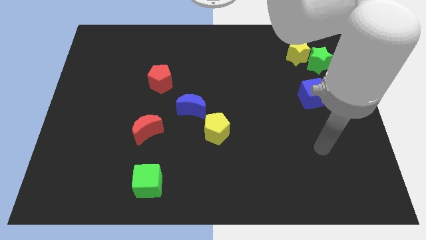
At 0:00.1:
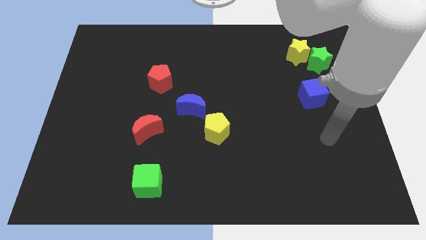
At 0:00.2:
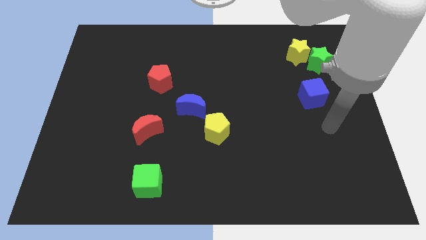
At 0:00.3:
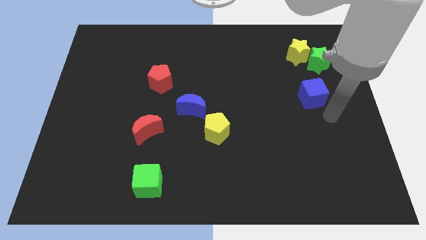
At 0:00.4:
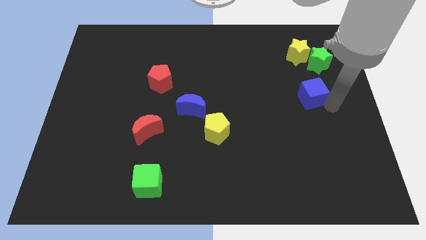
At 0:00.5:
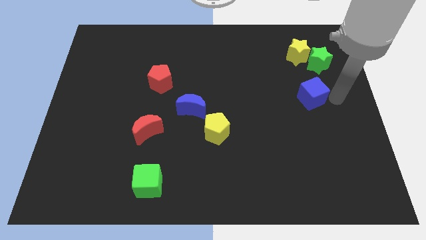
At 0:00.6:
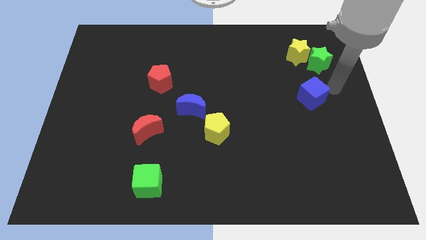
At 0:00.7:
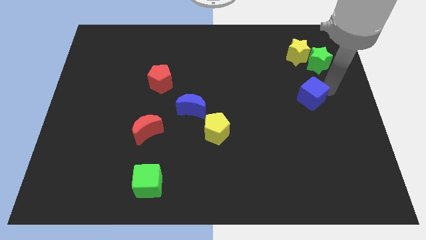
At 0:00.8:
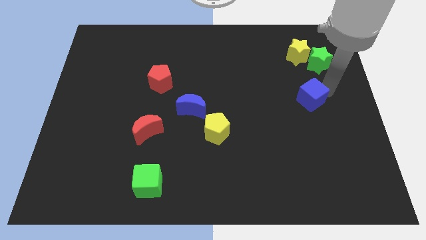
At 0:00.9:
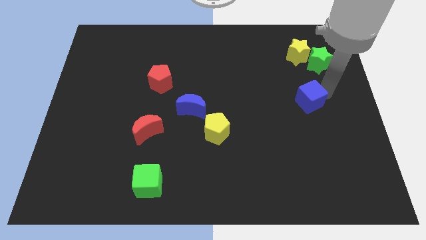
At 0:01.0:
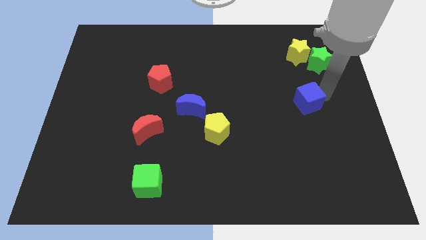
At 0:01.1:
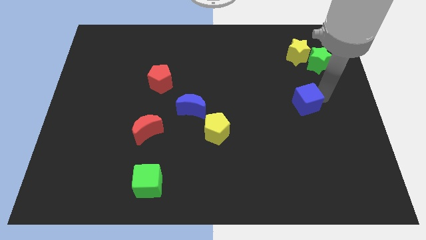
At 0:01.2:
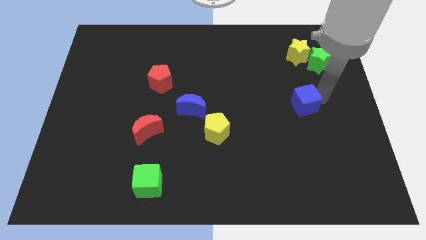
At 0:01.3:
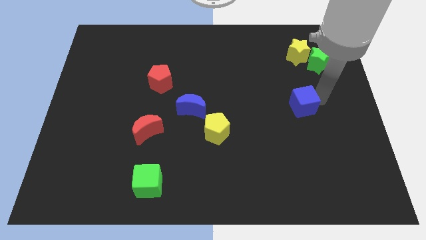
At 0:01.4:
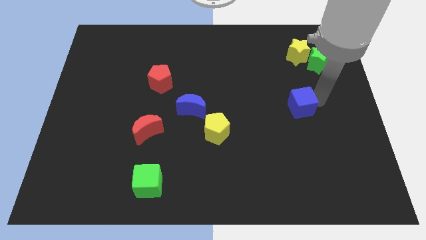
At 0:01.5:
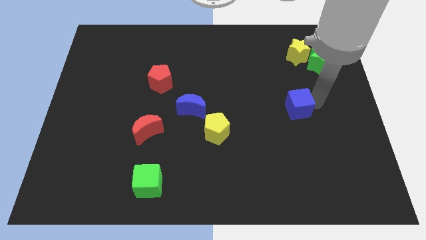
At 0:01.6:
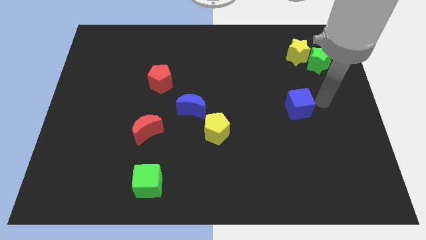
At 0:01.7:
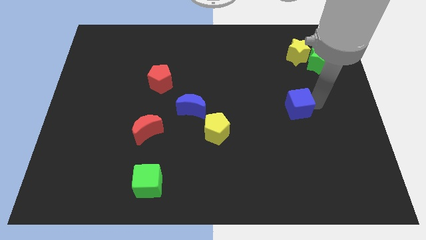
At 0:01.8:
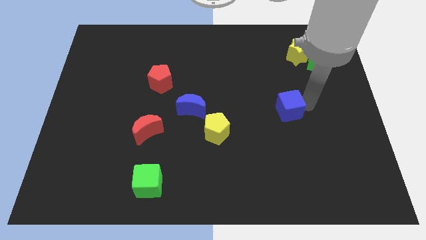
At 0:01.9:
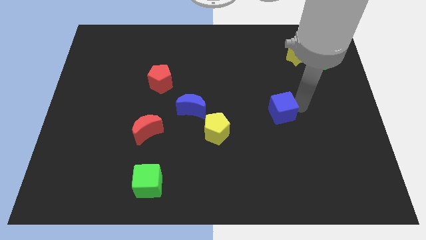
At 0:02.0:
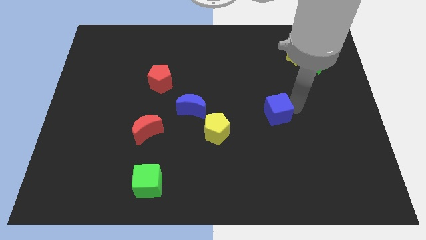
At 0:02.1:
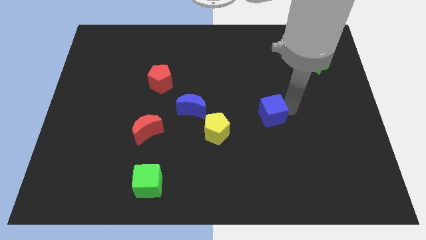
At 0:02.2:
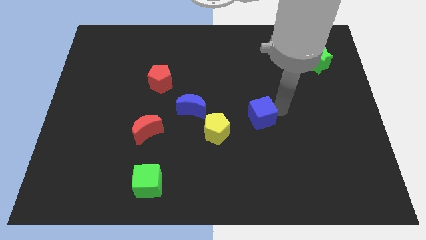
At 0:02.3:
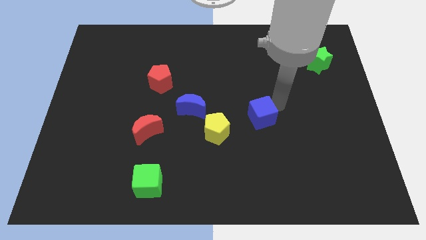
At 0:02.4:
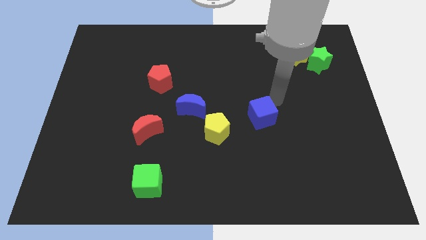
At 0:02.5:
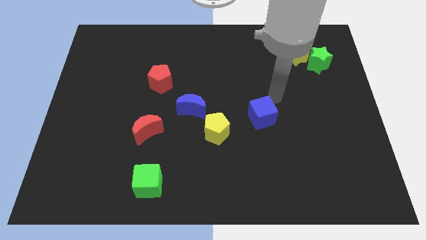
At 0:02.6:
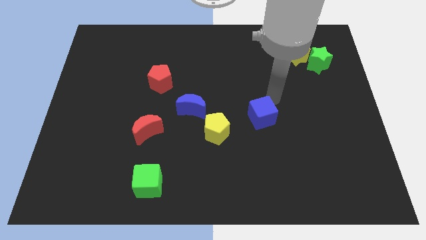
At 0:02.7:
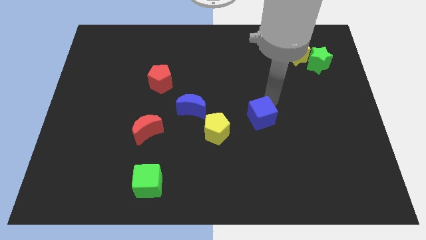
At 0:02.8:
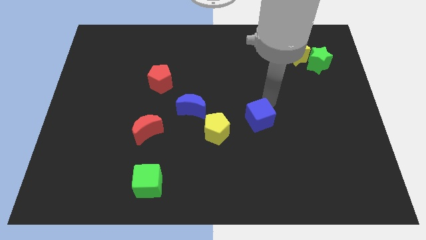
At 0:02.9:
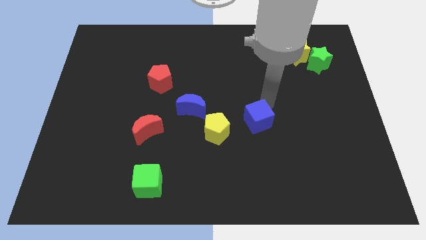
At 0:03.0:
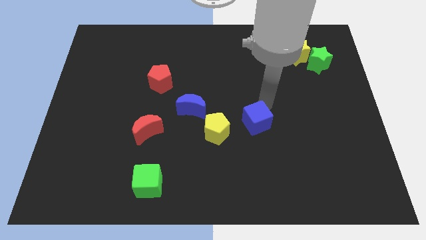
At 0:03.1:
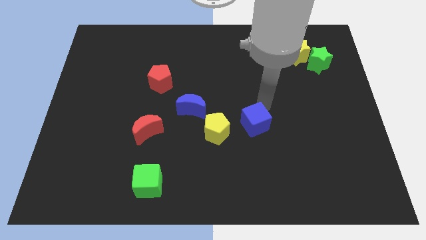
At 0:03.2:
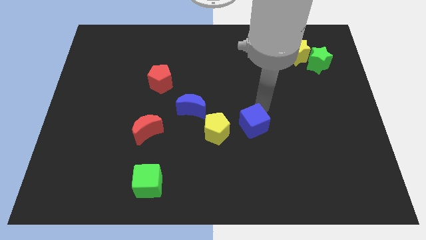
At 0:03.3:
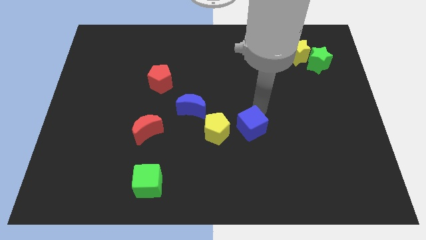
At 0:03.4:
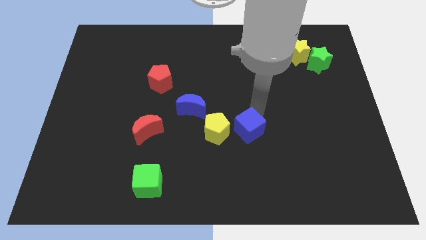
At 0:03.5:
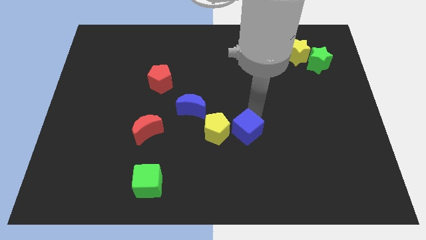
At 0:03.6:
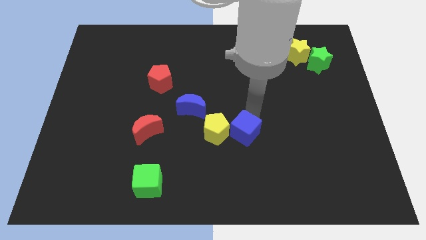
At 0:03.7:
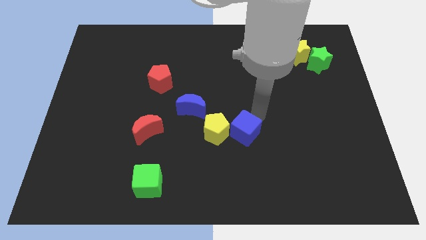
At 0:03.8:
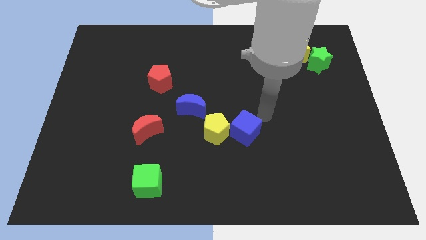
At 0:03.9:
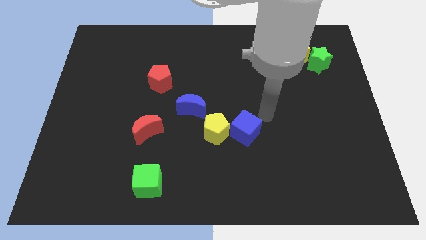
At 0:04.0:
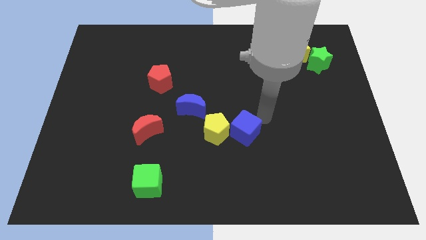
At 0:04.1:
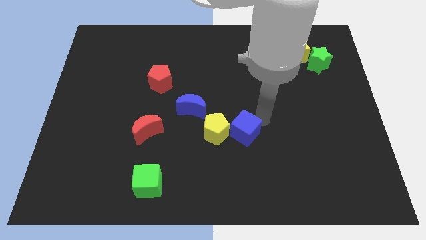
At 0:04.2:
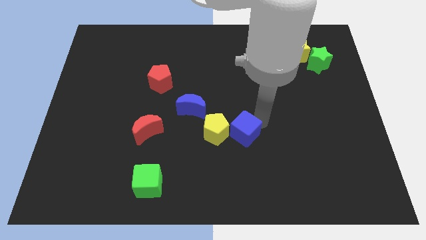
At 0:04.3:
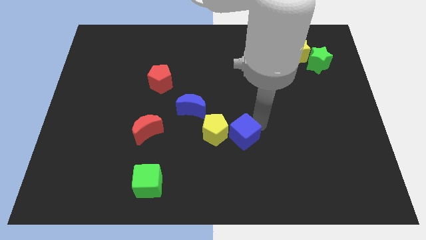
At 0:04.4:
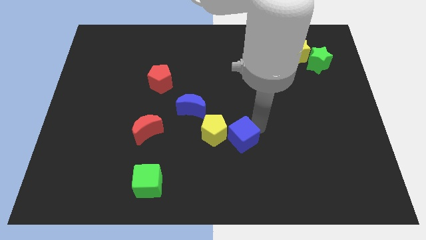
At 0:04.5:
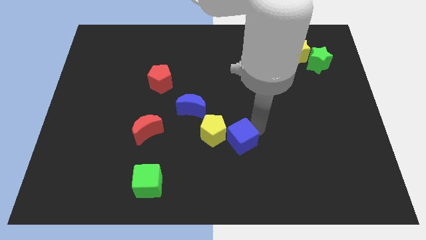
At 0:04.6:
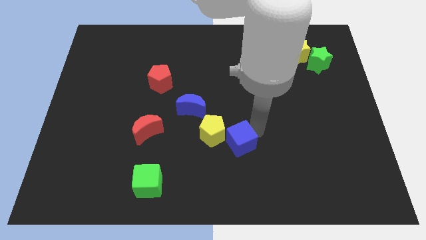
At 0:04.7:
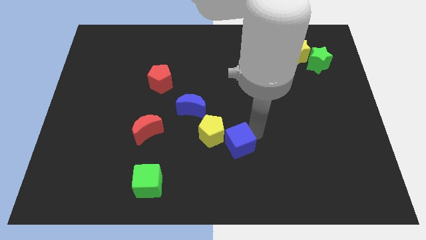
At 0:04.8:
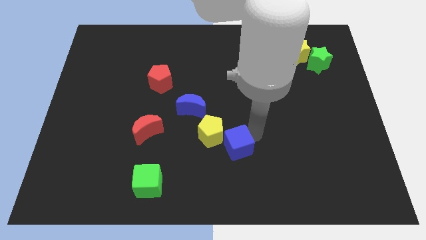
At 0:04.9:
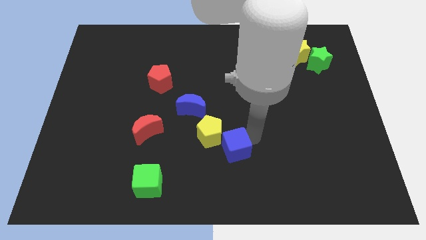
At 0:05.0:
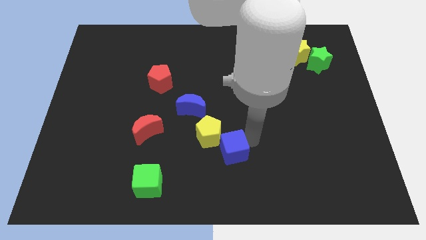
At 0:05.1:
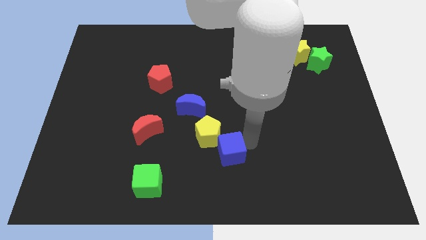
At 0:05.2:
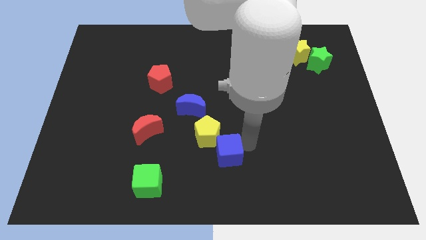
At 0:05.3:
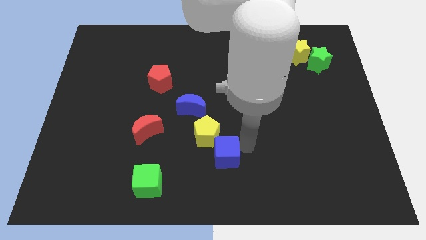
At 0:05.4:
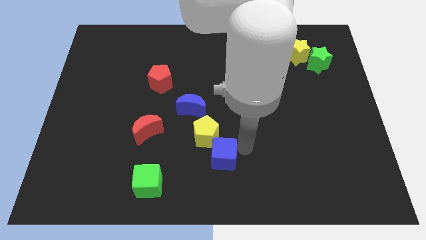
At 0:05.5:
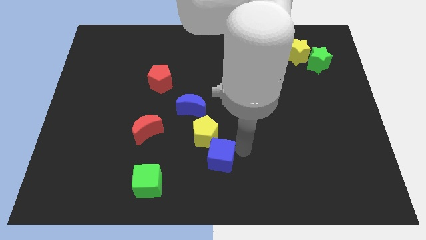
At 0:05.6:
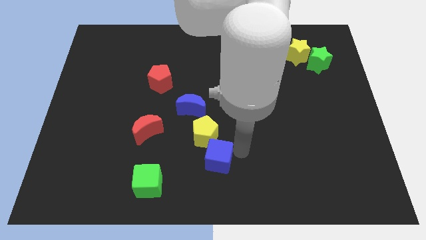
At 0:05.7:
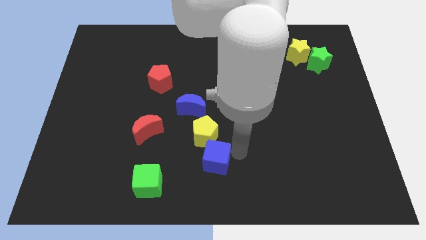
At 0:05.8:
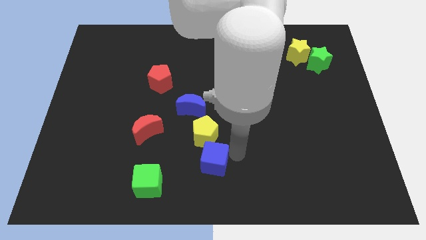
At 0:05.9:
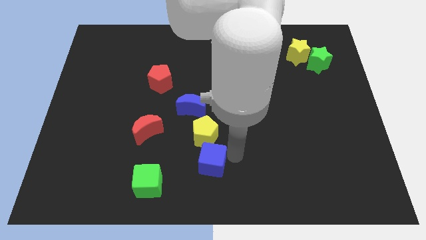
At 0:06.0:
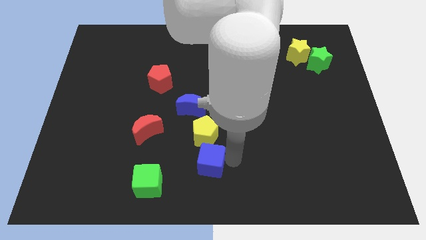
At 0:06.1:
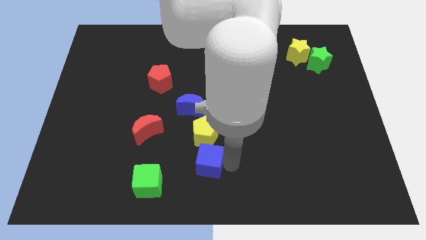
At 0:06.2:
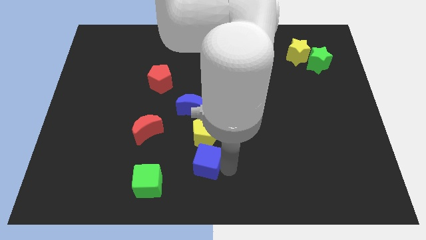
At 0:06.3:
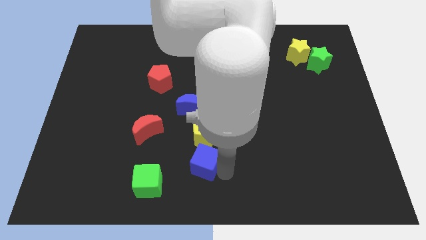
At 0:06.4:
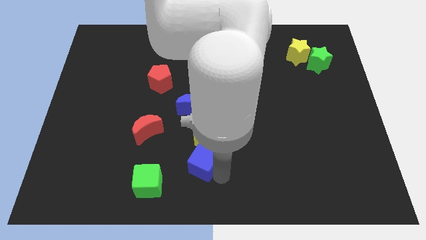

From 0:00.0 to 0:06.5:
put the blue cube to the bottom left side of the yellow pentagon
